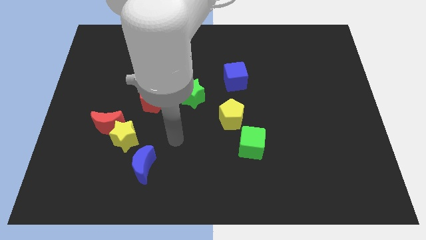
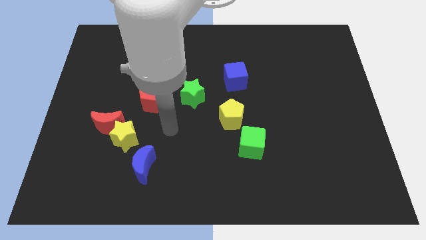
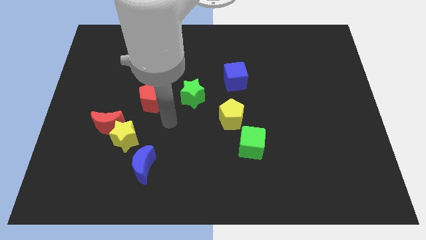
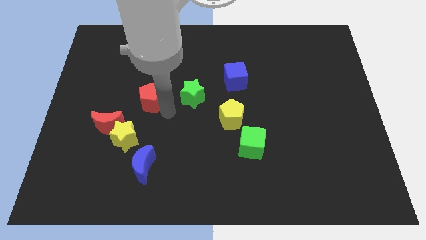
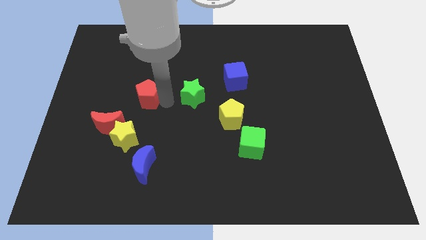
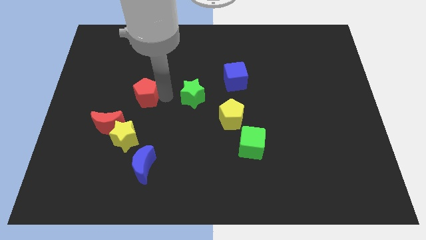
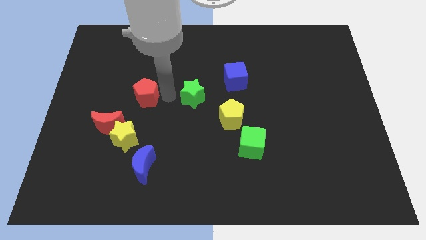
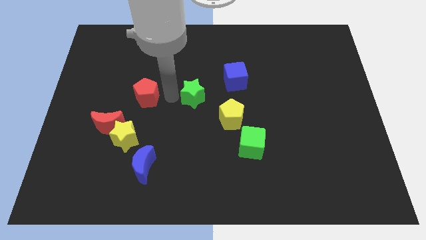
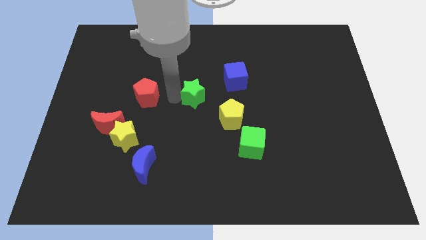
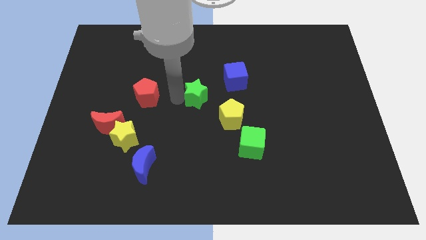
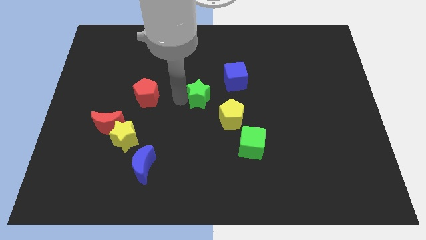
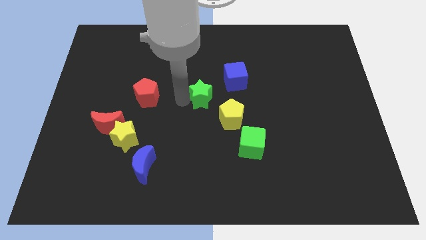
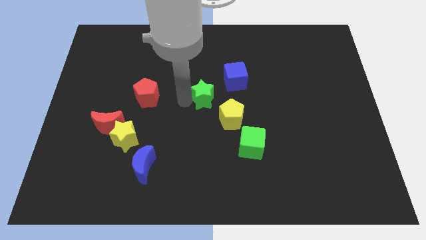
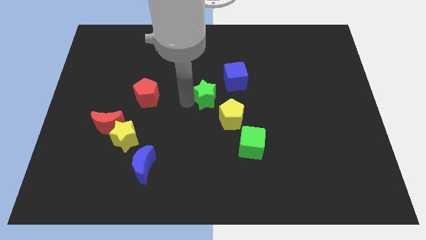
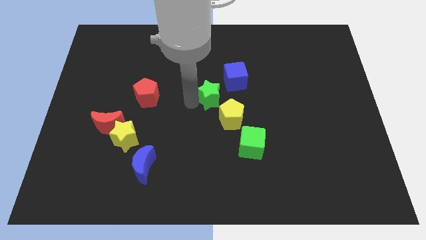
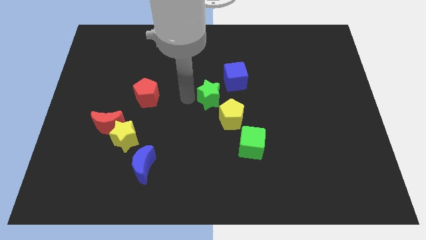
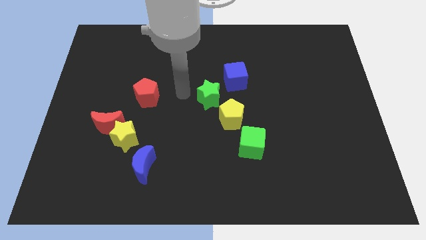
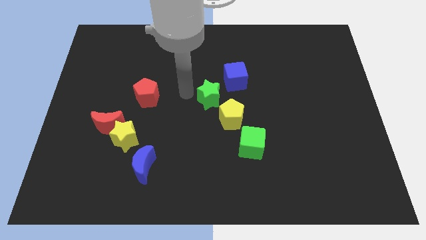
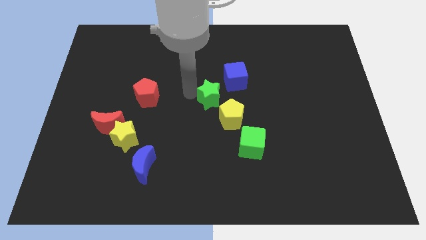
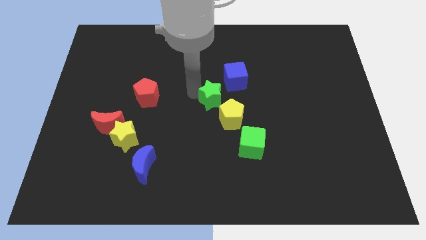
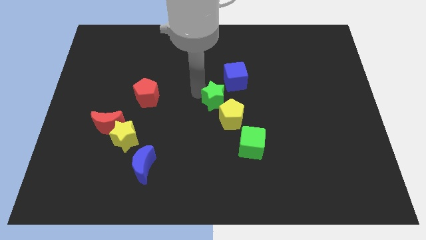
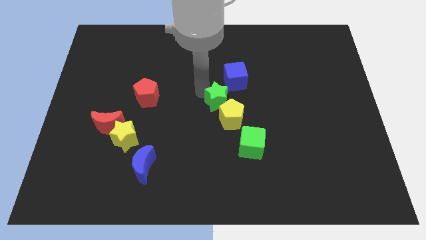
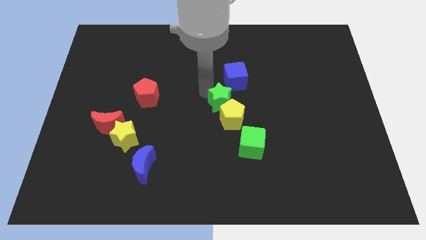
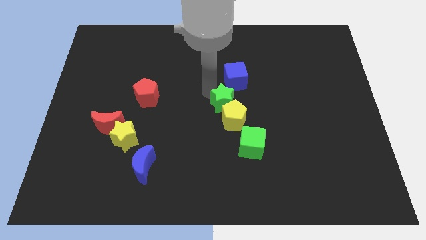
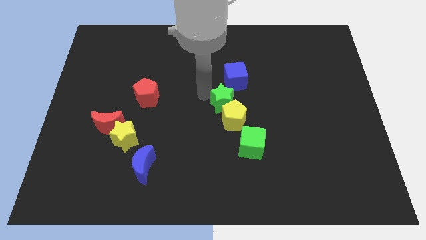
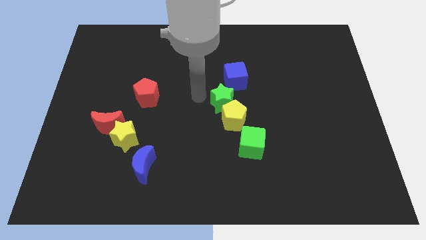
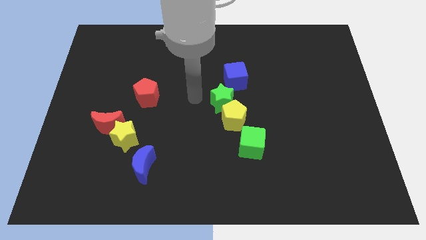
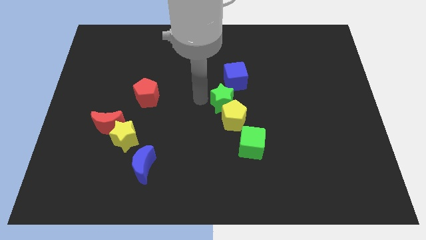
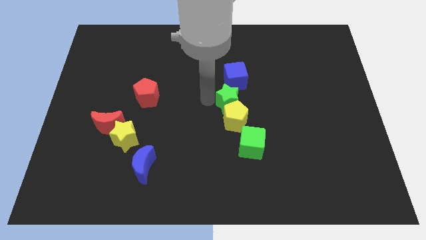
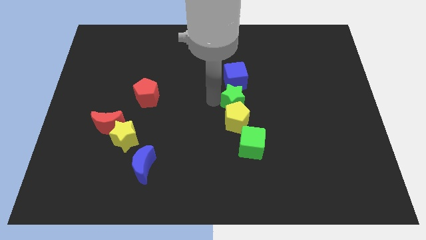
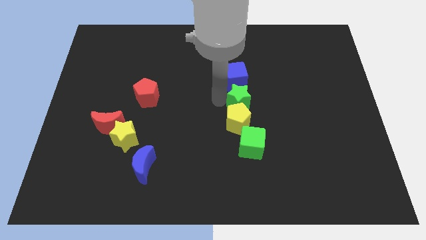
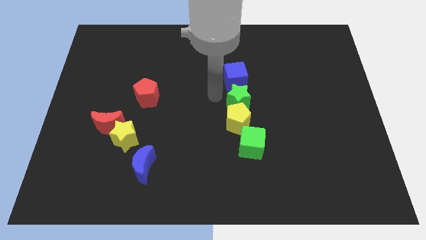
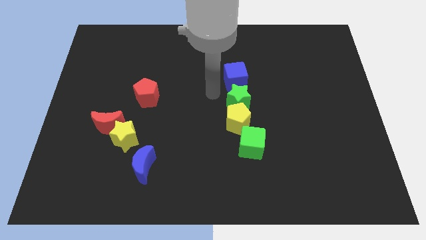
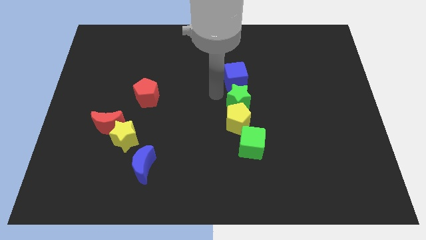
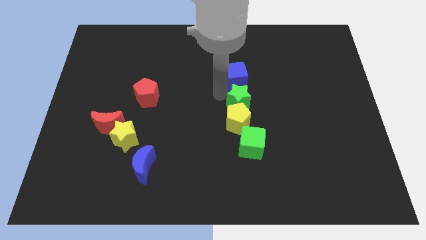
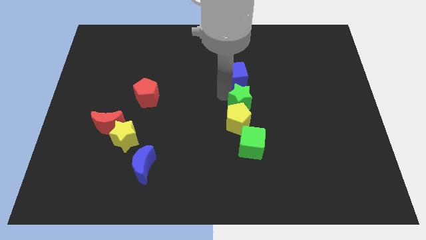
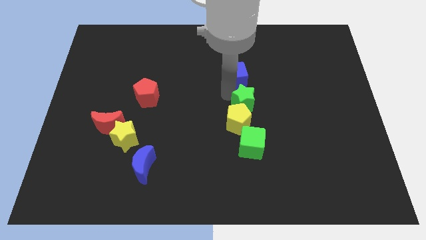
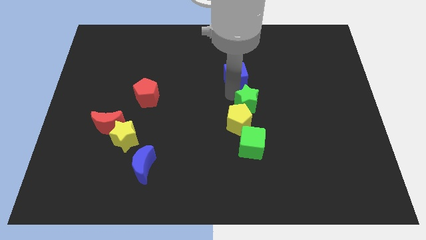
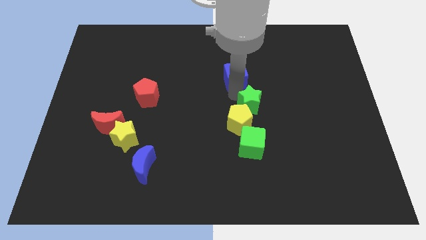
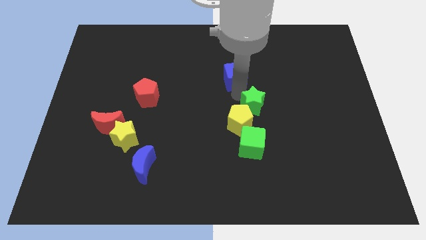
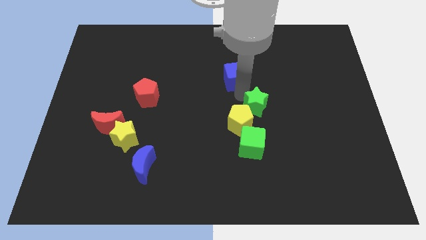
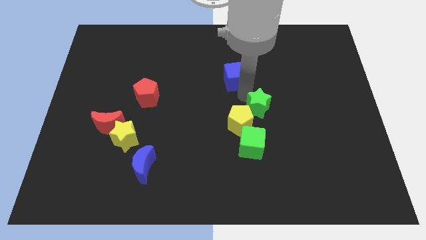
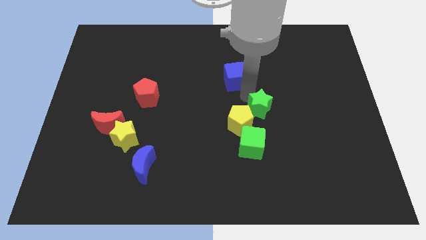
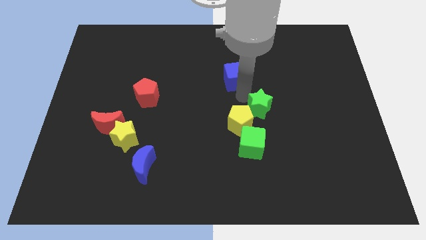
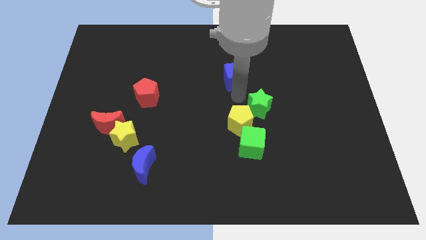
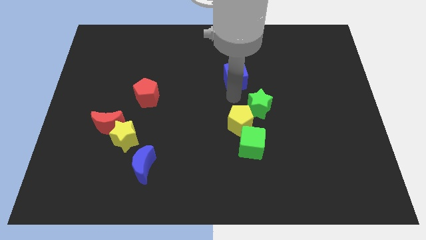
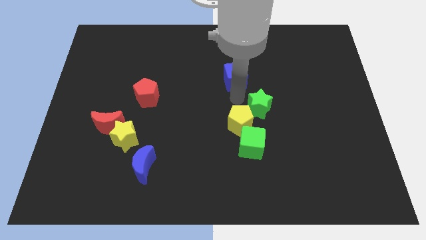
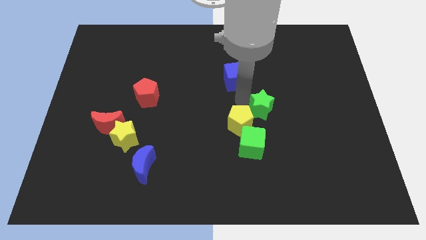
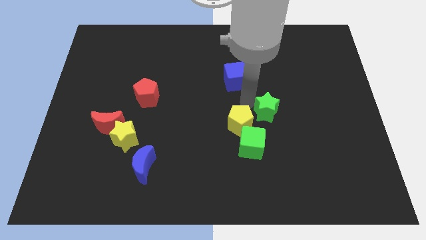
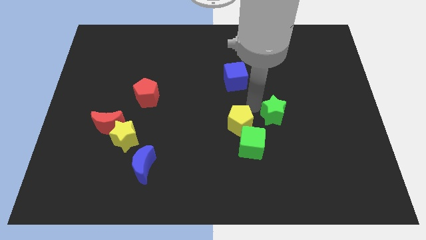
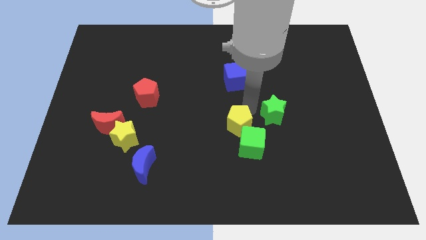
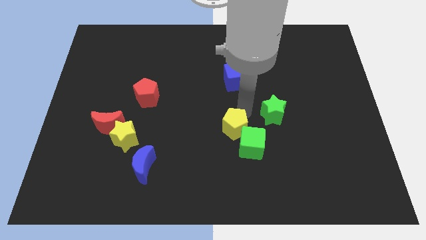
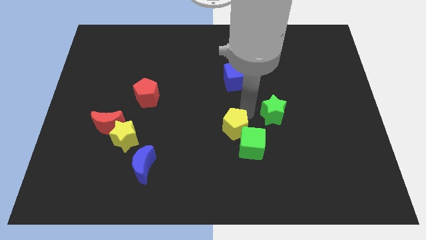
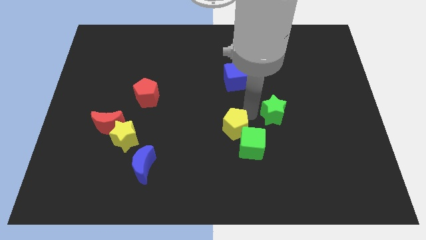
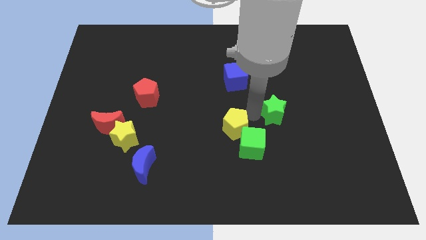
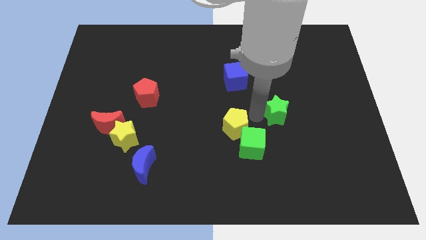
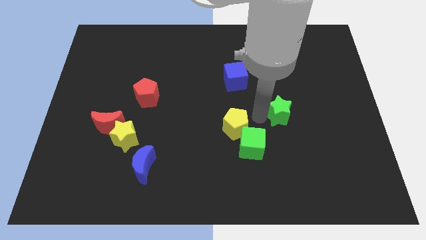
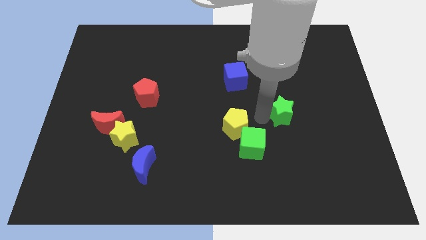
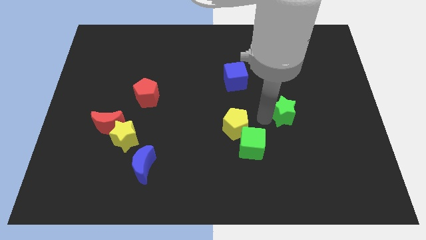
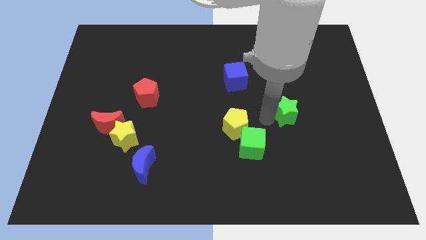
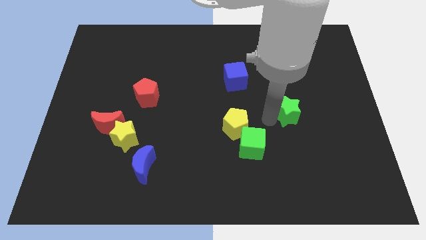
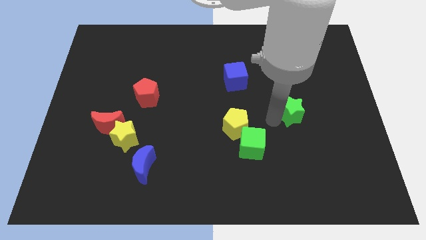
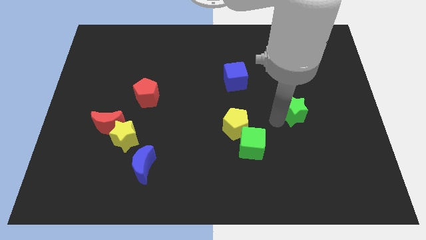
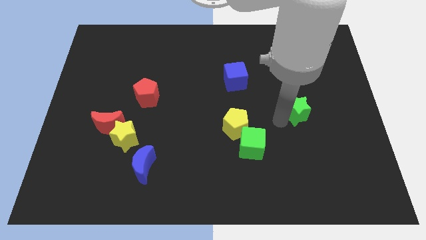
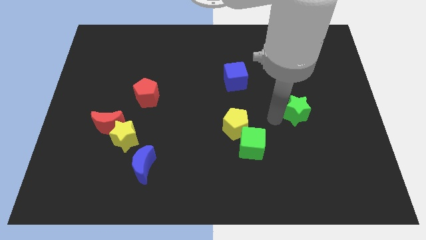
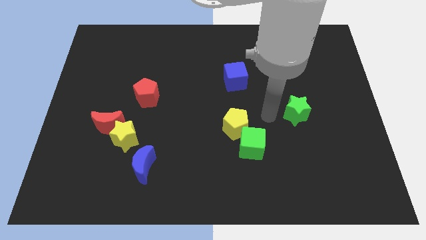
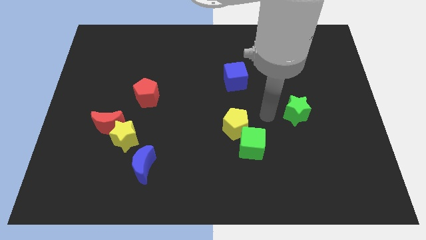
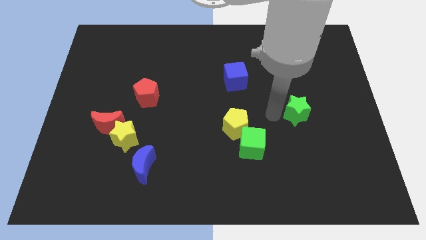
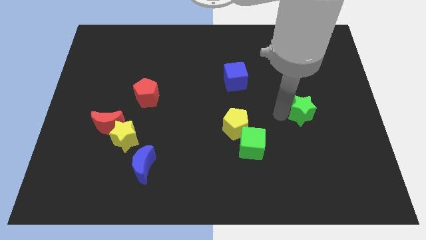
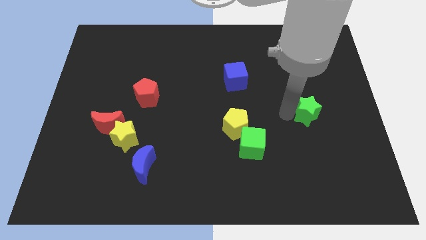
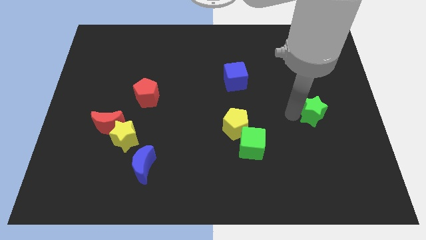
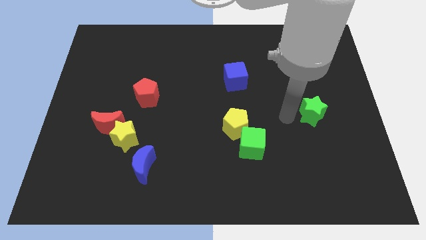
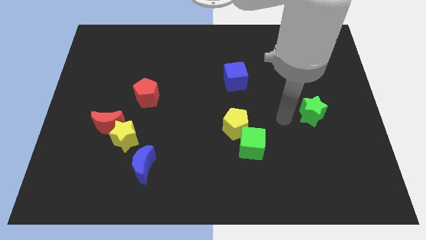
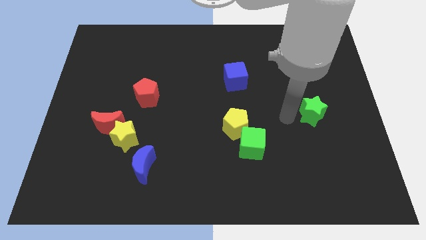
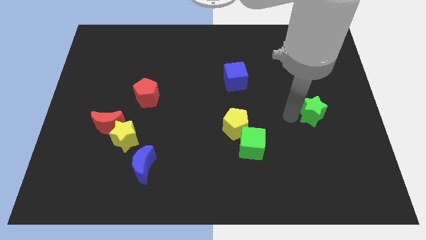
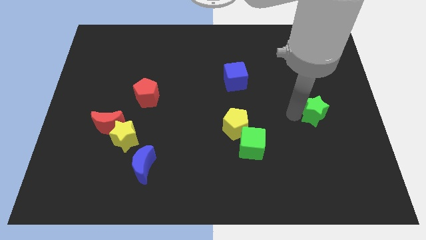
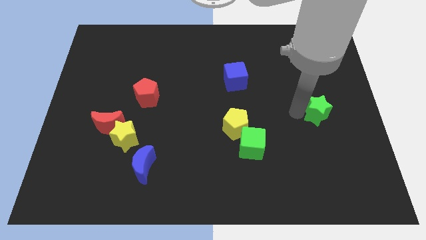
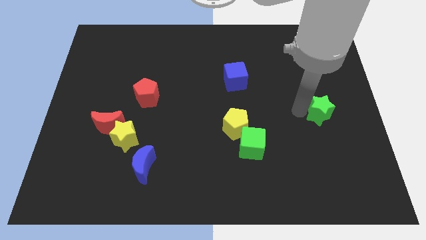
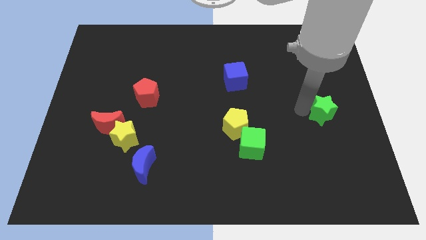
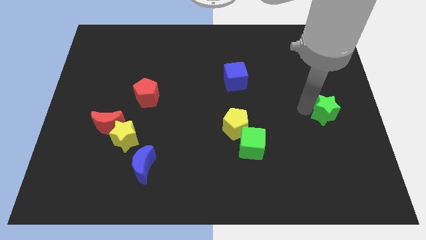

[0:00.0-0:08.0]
slide the green star to the center right
